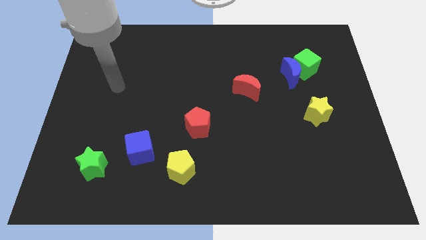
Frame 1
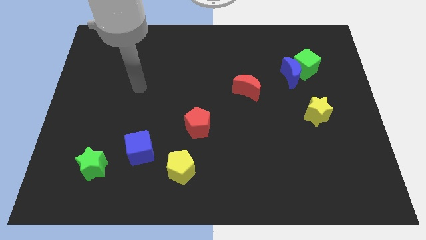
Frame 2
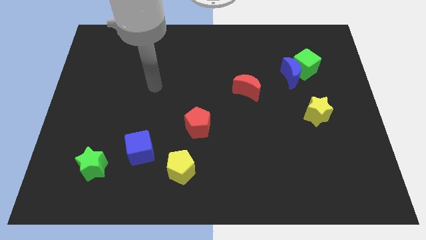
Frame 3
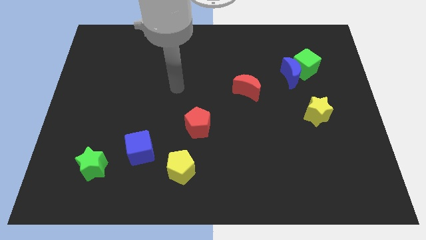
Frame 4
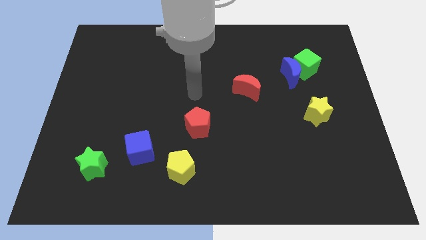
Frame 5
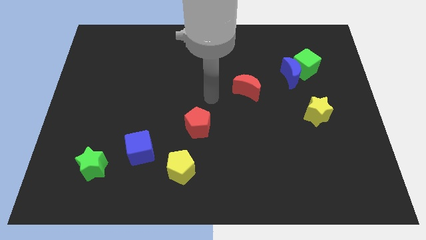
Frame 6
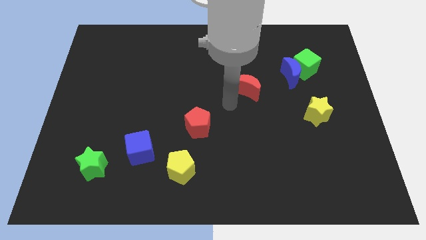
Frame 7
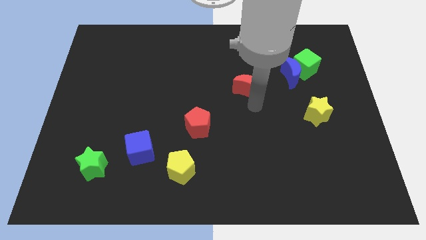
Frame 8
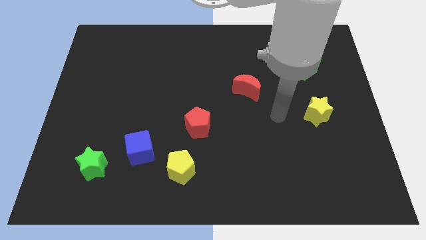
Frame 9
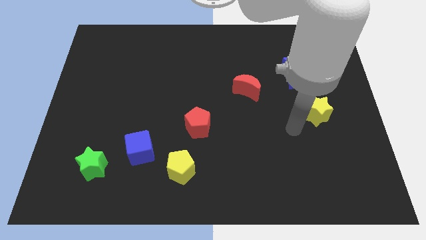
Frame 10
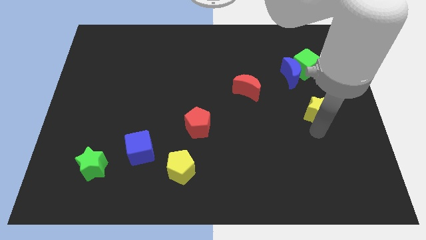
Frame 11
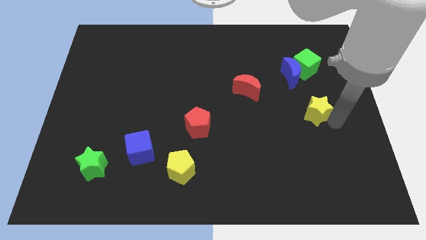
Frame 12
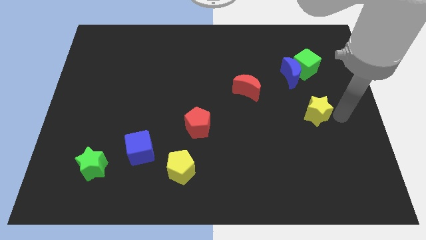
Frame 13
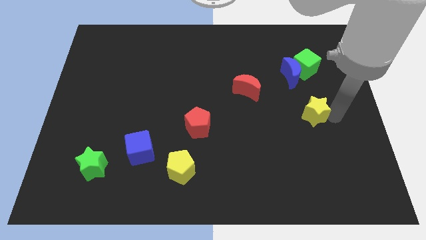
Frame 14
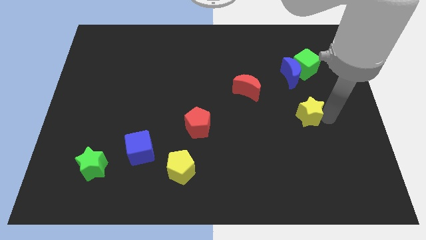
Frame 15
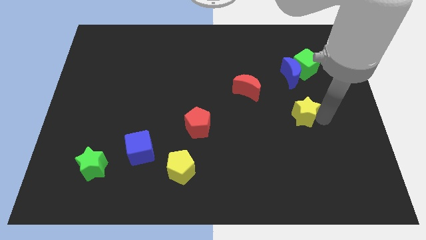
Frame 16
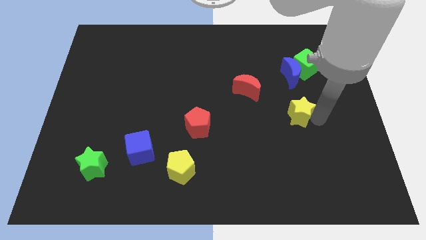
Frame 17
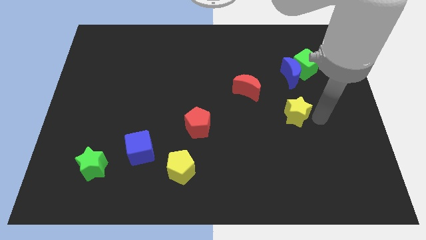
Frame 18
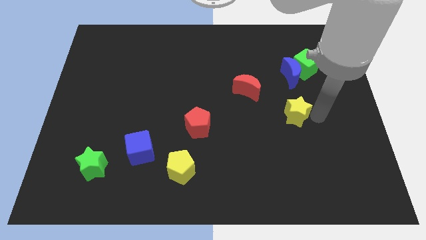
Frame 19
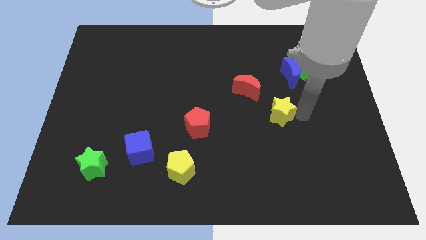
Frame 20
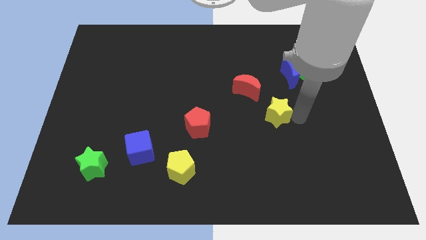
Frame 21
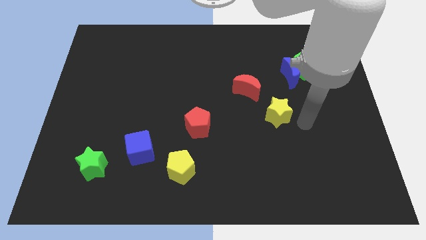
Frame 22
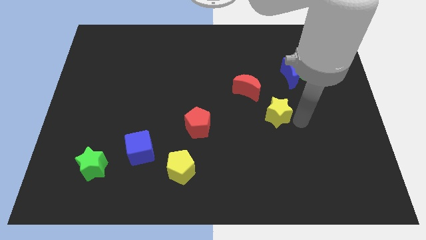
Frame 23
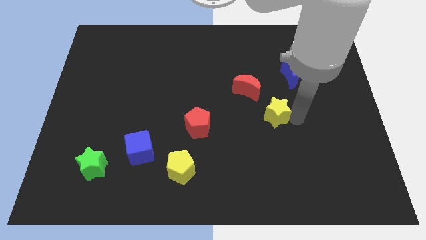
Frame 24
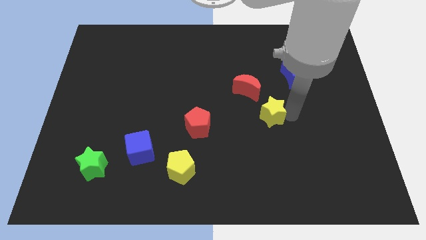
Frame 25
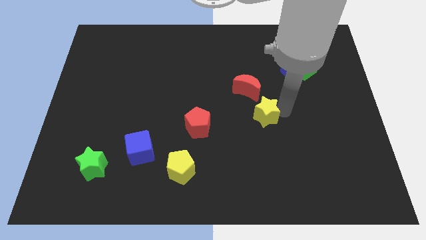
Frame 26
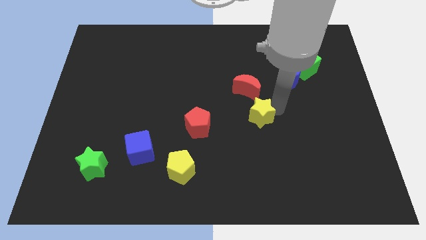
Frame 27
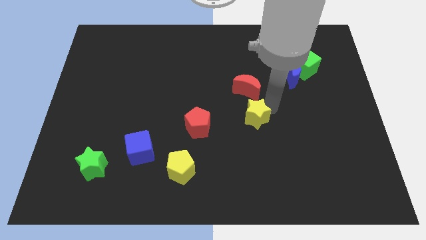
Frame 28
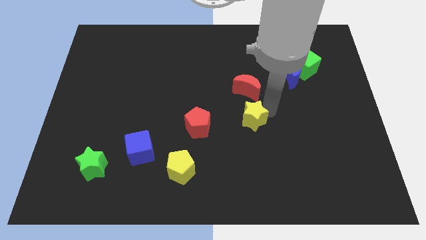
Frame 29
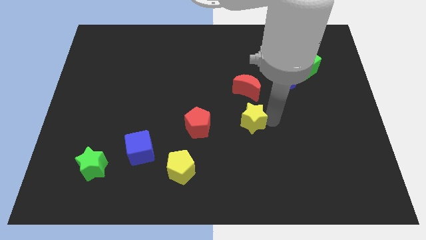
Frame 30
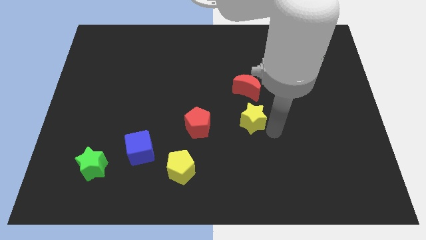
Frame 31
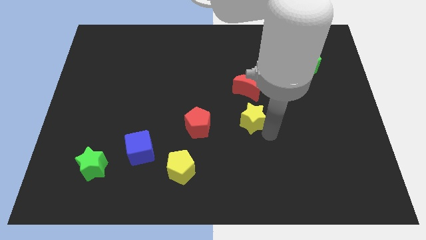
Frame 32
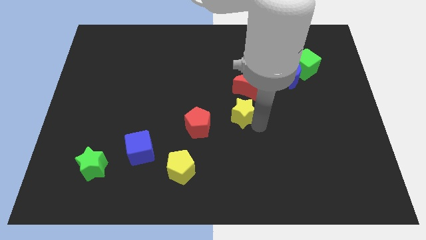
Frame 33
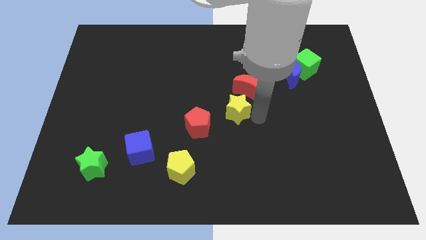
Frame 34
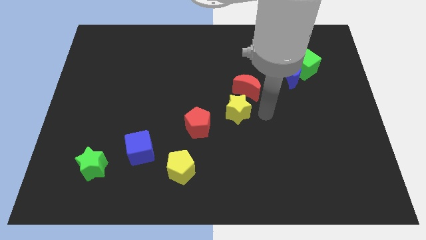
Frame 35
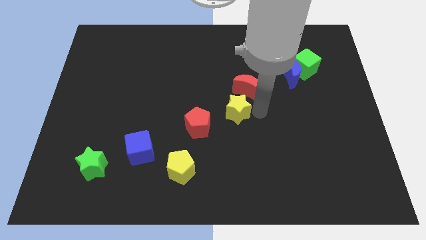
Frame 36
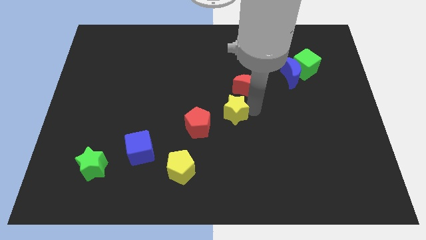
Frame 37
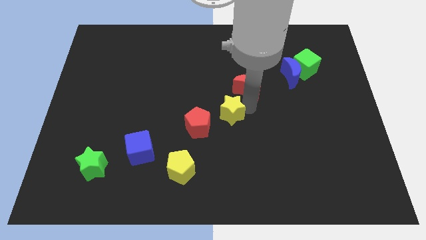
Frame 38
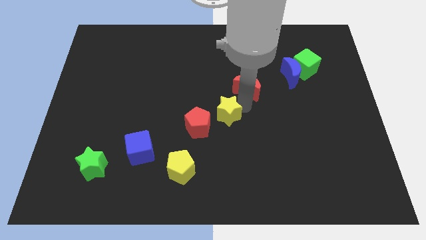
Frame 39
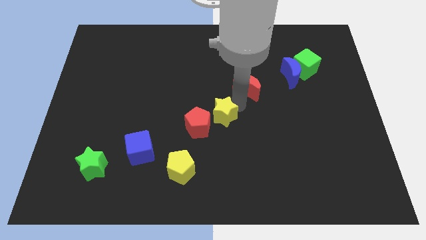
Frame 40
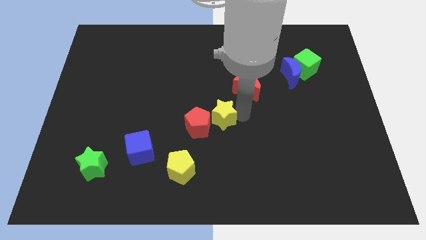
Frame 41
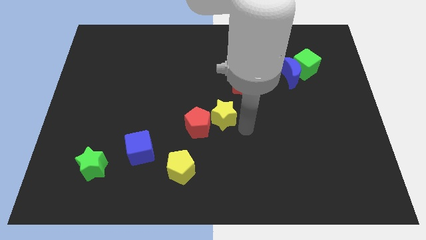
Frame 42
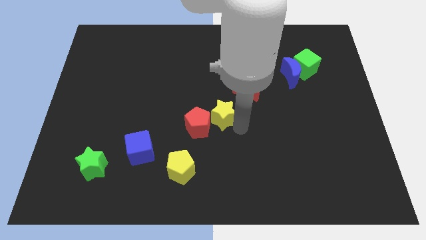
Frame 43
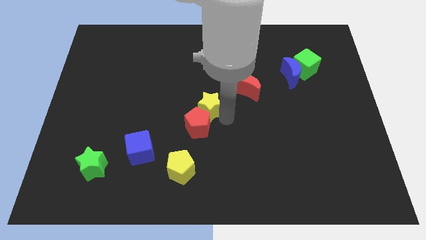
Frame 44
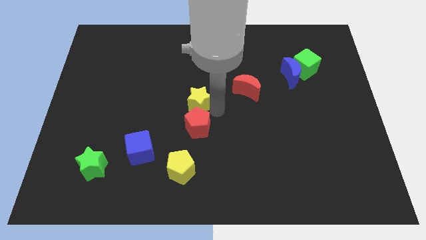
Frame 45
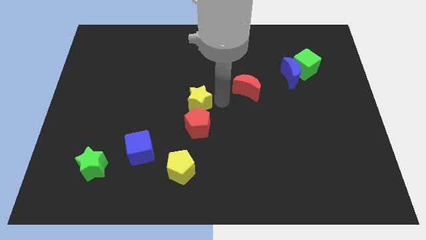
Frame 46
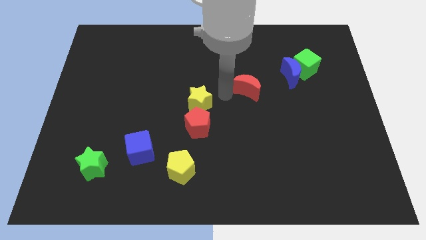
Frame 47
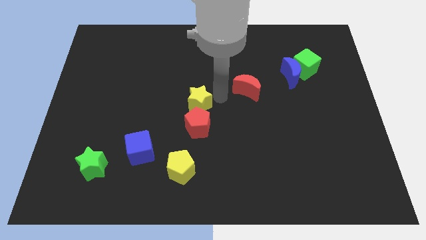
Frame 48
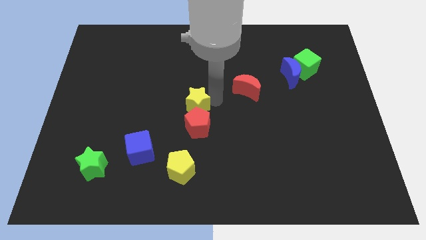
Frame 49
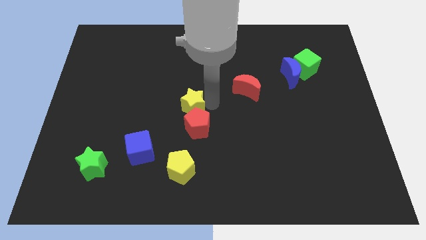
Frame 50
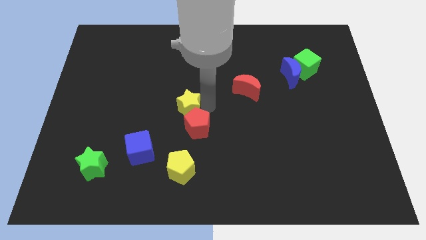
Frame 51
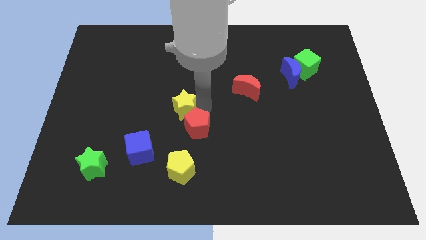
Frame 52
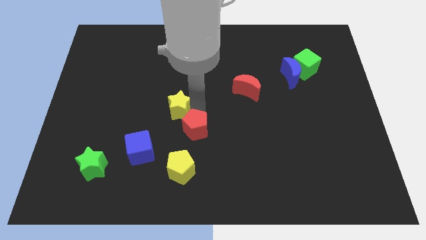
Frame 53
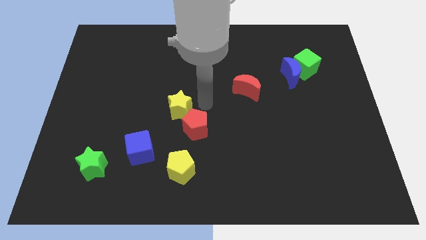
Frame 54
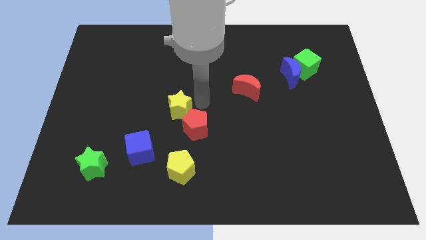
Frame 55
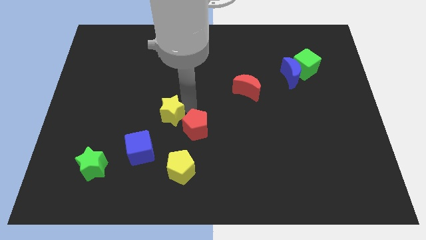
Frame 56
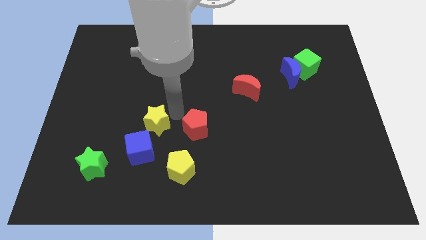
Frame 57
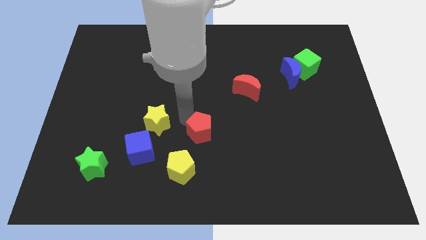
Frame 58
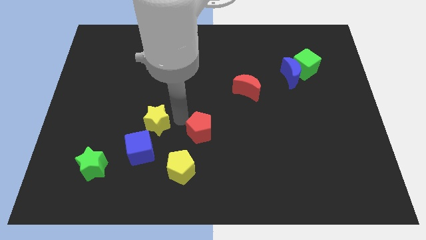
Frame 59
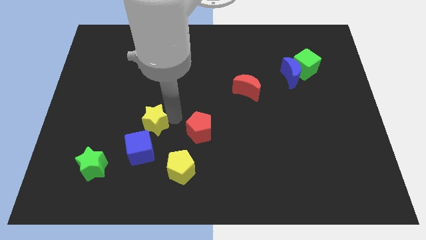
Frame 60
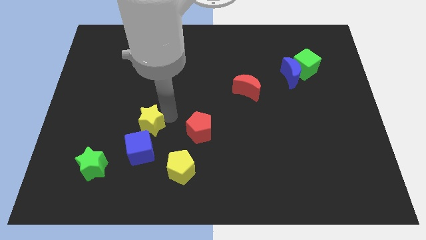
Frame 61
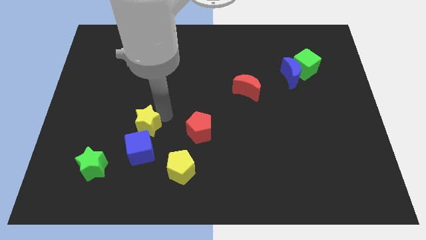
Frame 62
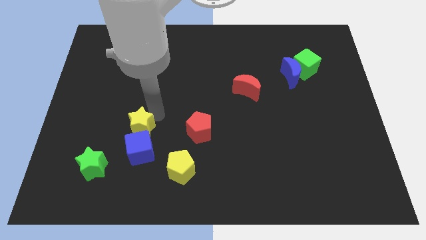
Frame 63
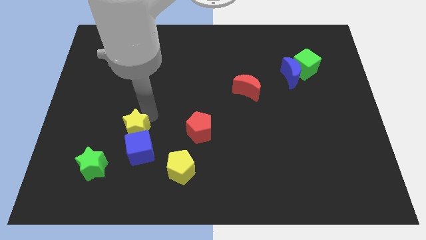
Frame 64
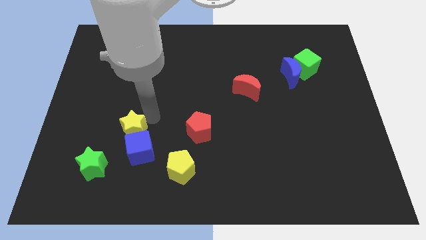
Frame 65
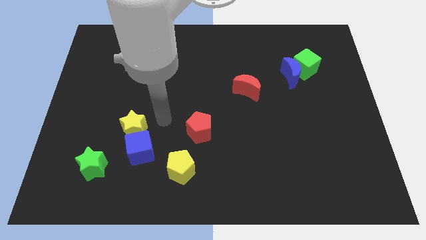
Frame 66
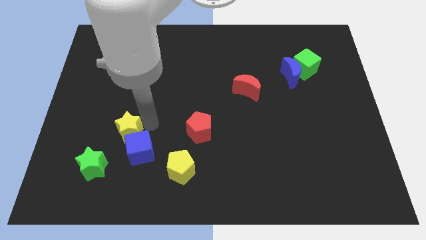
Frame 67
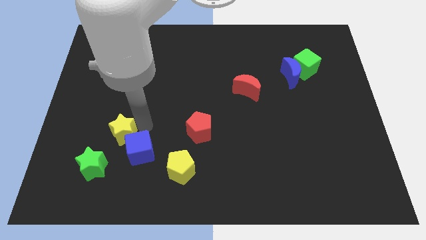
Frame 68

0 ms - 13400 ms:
move the yellow star left of the blue cube
